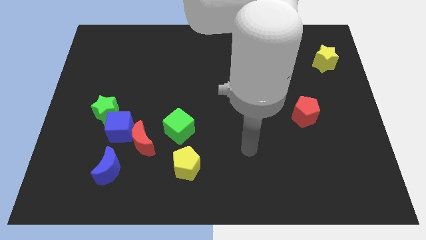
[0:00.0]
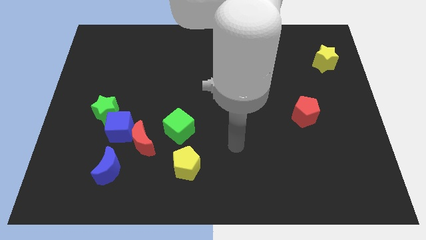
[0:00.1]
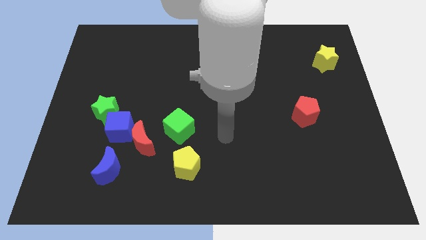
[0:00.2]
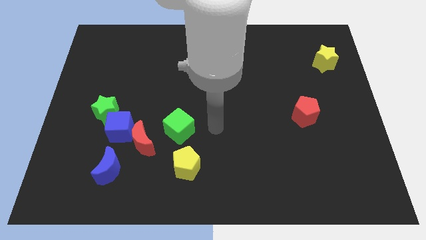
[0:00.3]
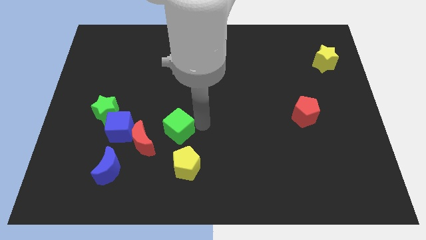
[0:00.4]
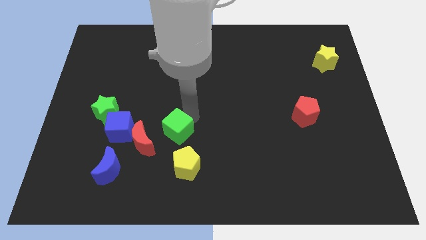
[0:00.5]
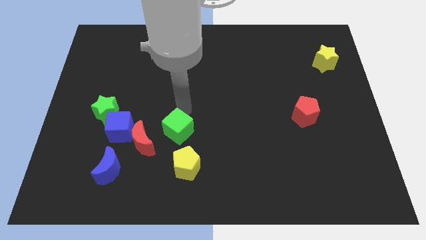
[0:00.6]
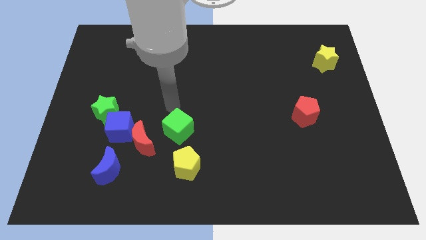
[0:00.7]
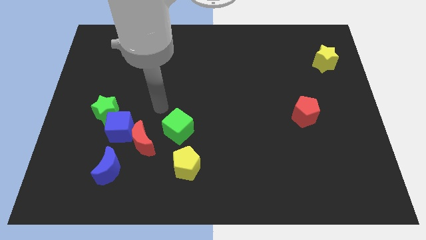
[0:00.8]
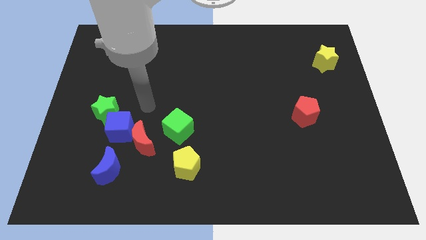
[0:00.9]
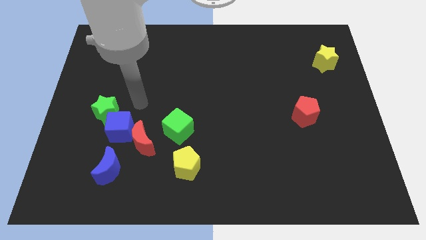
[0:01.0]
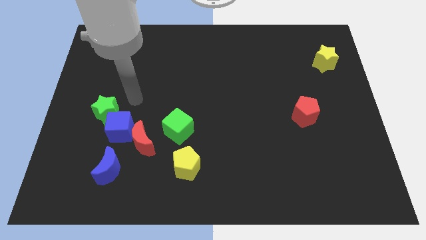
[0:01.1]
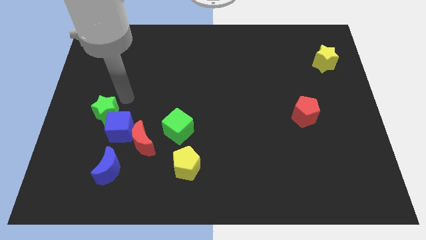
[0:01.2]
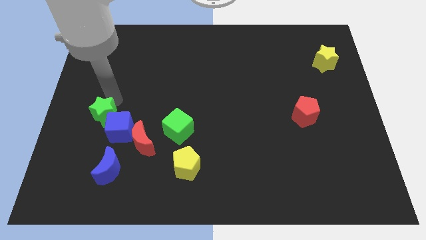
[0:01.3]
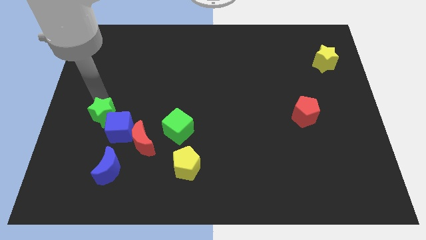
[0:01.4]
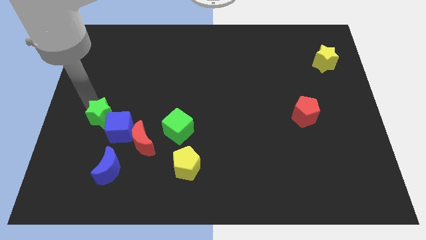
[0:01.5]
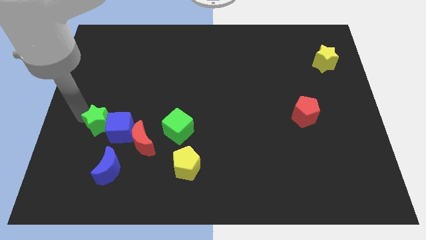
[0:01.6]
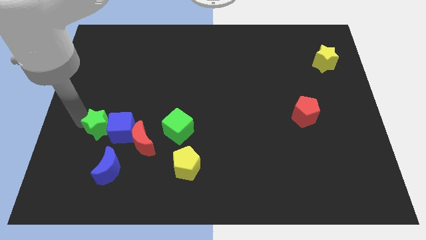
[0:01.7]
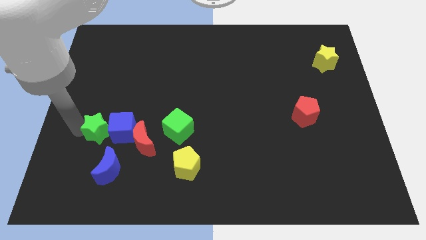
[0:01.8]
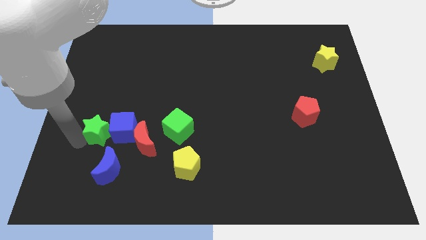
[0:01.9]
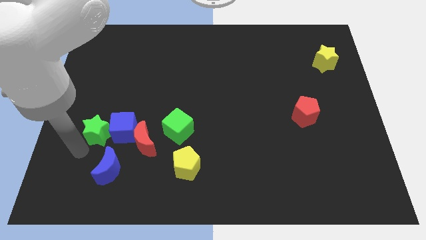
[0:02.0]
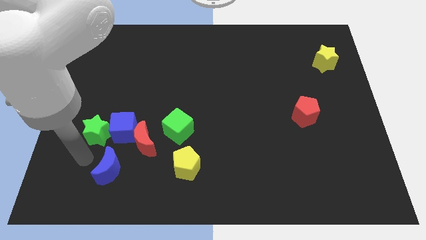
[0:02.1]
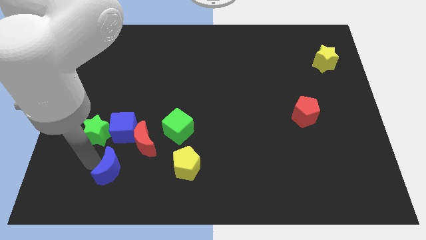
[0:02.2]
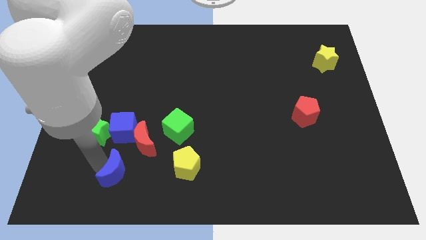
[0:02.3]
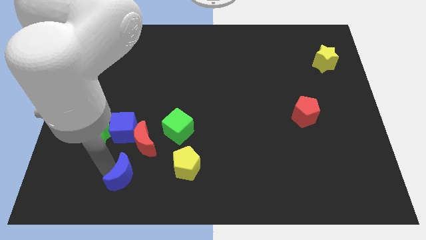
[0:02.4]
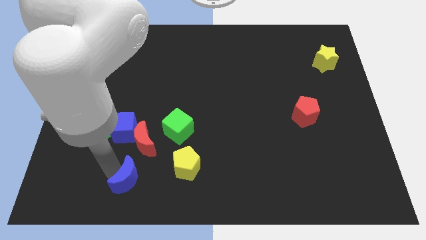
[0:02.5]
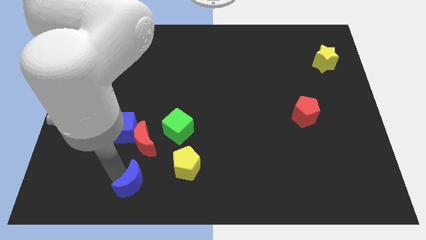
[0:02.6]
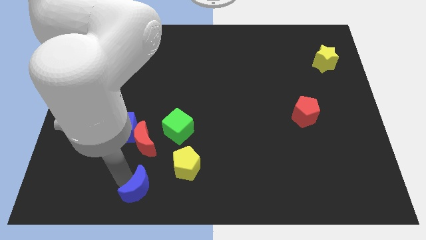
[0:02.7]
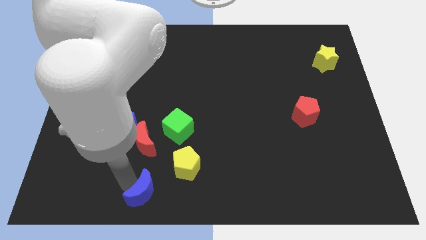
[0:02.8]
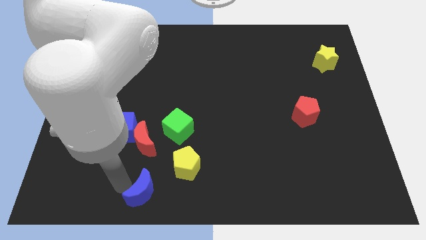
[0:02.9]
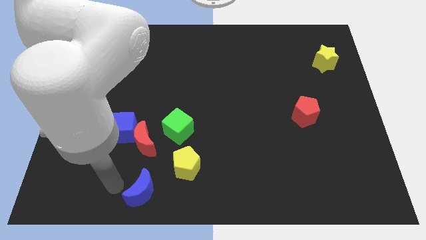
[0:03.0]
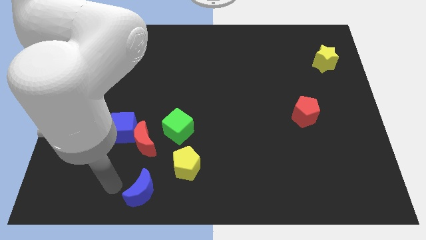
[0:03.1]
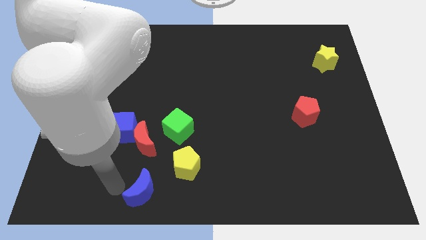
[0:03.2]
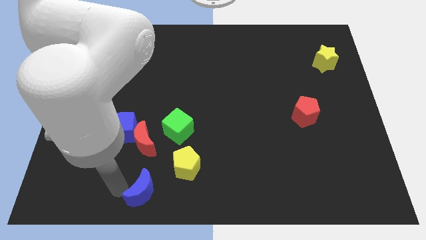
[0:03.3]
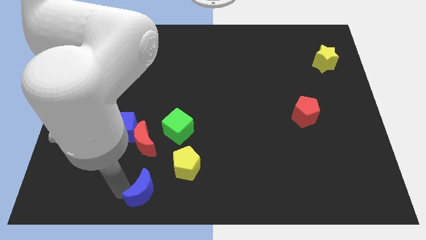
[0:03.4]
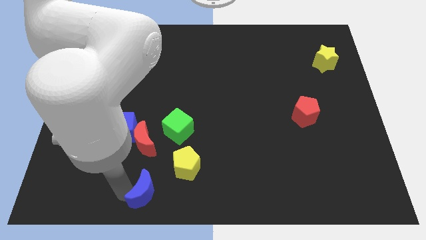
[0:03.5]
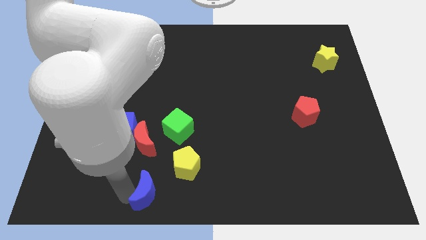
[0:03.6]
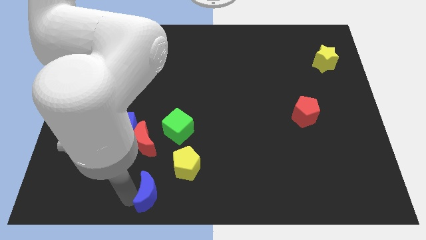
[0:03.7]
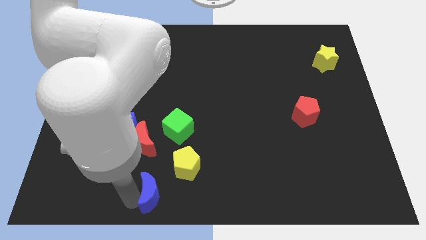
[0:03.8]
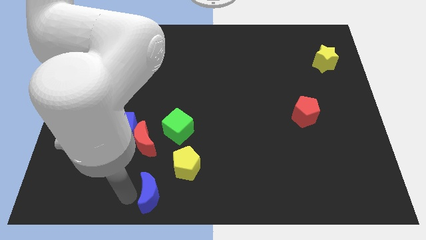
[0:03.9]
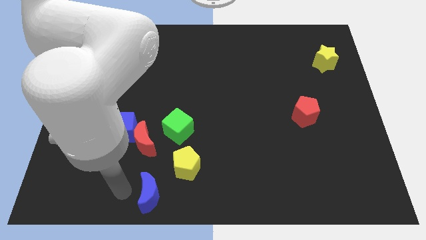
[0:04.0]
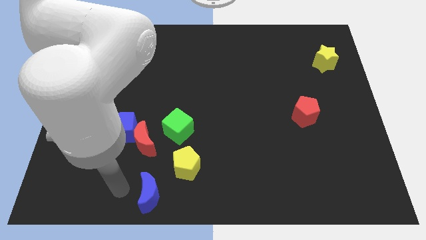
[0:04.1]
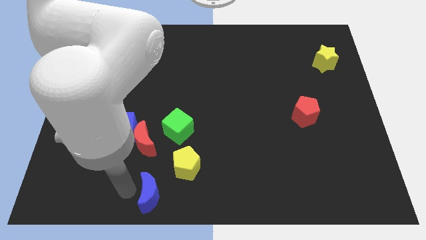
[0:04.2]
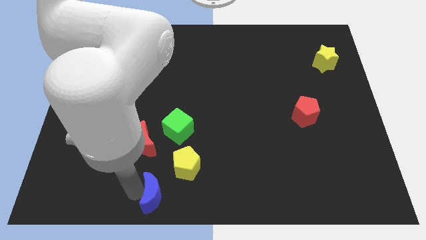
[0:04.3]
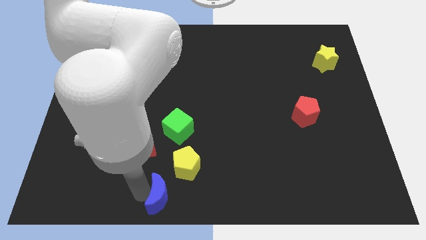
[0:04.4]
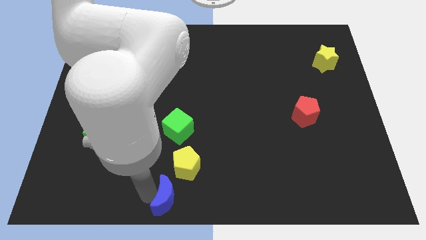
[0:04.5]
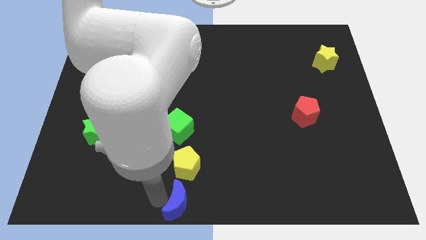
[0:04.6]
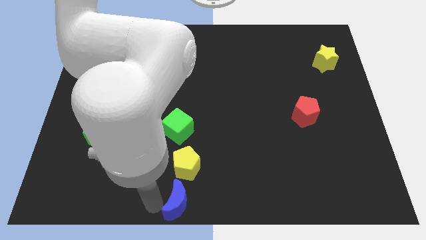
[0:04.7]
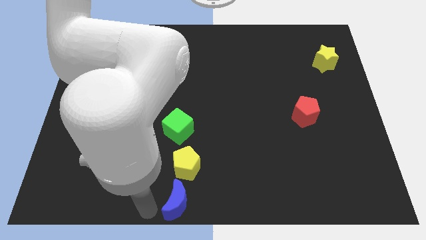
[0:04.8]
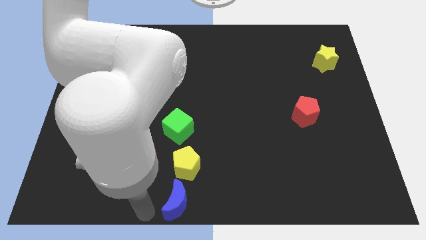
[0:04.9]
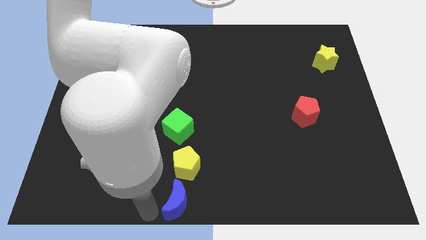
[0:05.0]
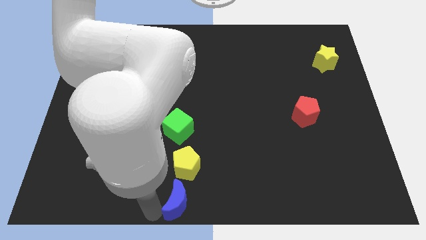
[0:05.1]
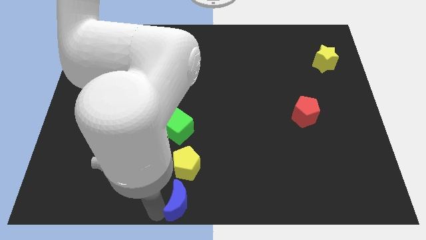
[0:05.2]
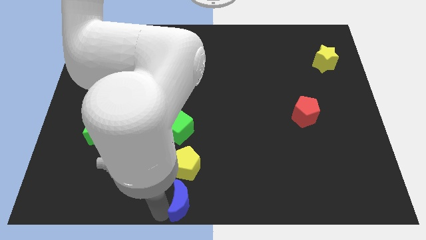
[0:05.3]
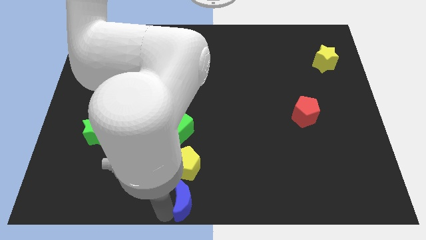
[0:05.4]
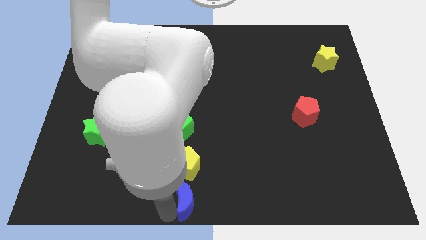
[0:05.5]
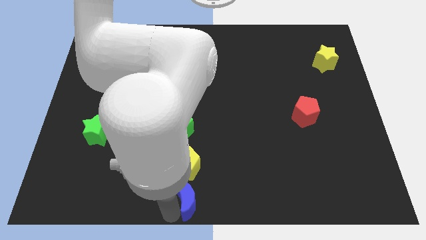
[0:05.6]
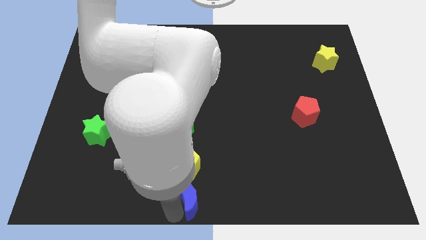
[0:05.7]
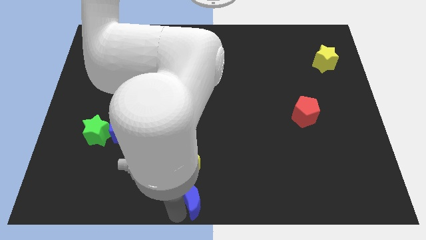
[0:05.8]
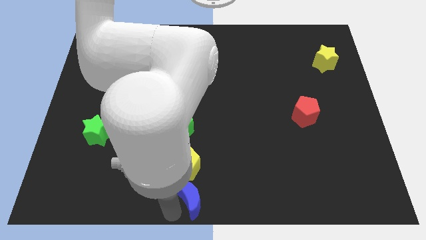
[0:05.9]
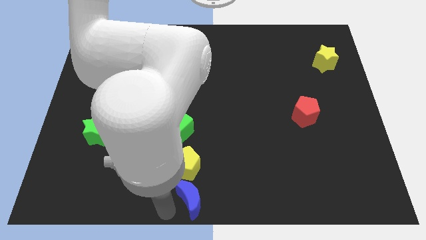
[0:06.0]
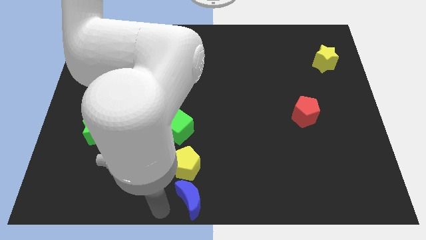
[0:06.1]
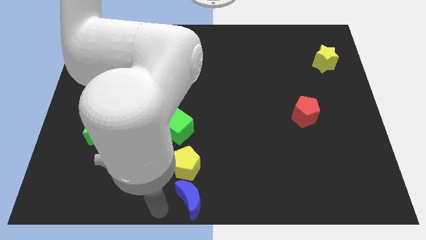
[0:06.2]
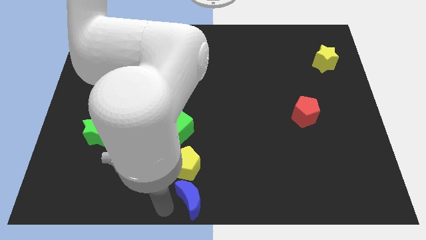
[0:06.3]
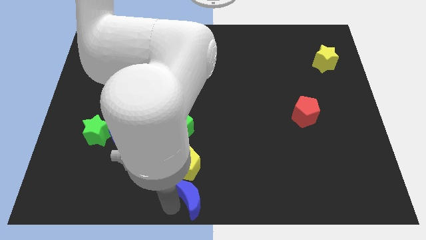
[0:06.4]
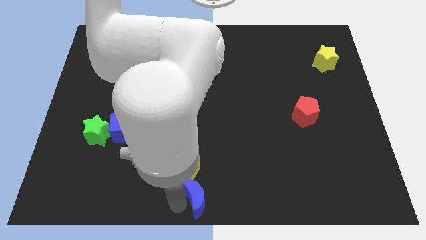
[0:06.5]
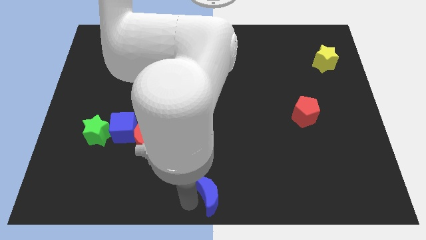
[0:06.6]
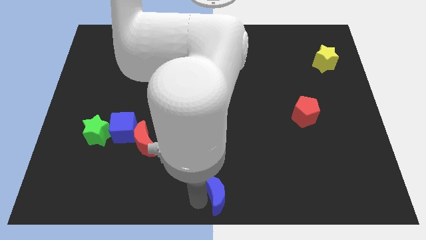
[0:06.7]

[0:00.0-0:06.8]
push the blue moon right

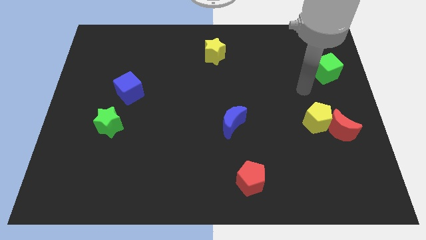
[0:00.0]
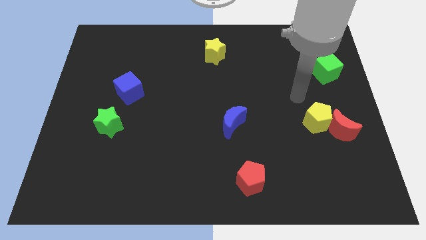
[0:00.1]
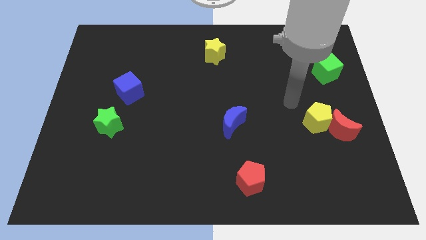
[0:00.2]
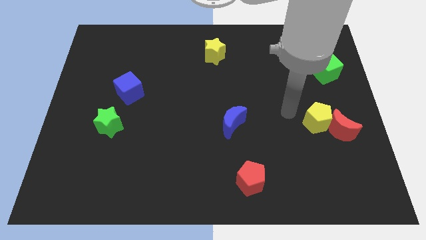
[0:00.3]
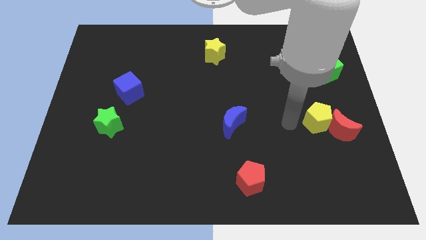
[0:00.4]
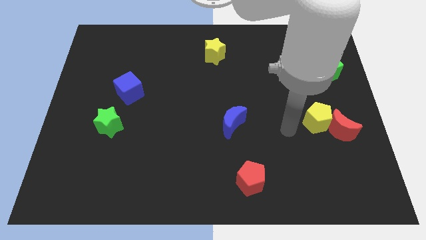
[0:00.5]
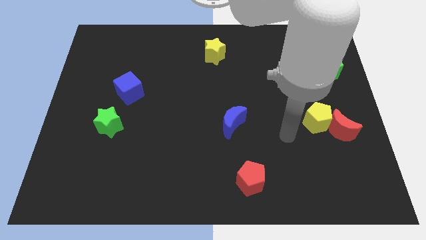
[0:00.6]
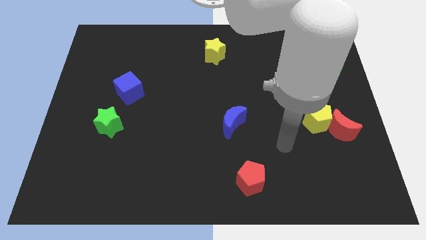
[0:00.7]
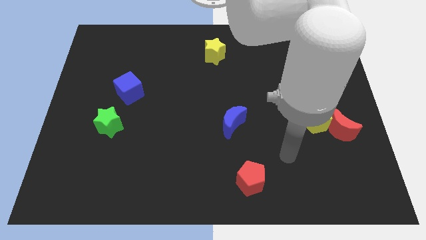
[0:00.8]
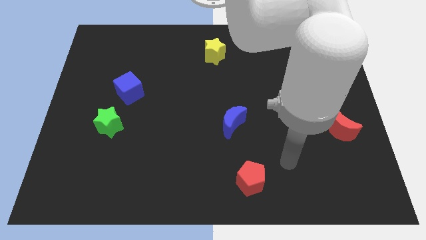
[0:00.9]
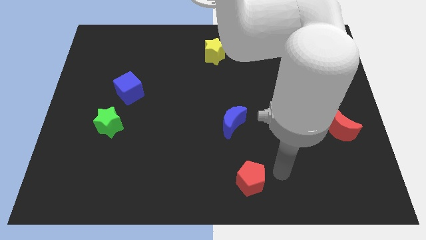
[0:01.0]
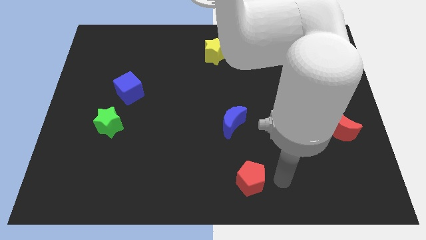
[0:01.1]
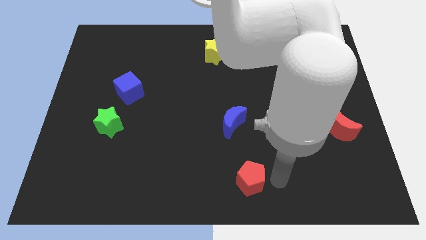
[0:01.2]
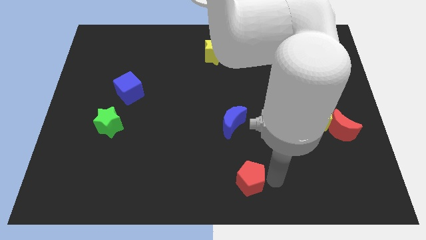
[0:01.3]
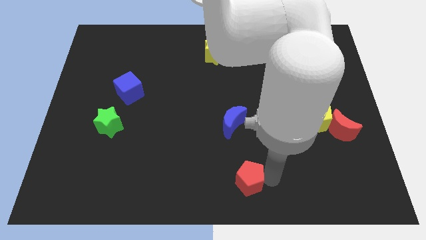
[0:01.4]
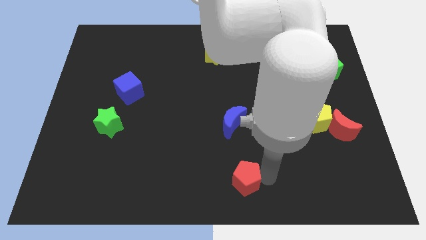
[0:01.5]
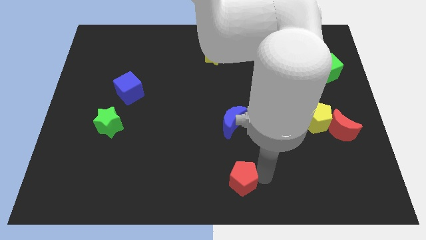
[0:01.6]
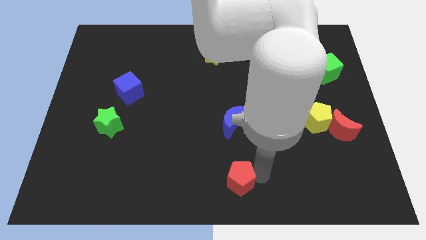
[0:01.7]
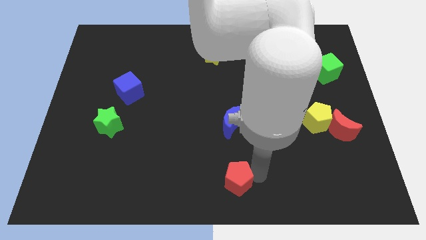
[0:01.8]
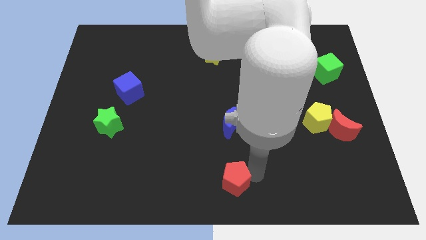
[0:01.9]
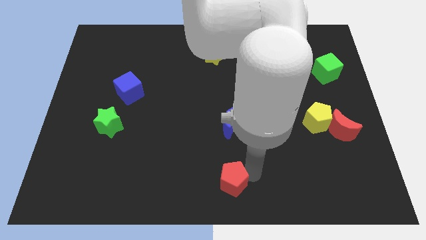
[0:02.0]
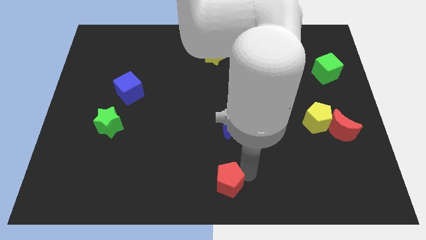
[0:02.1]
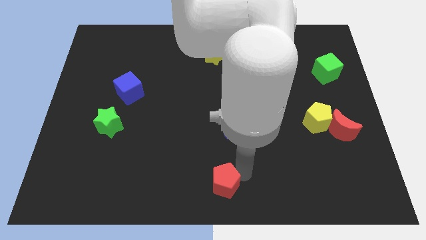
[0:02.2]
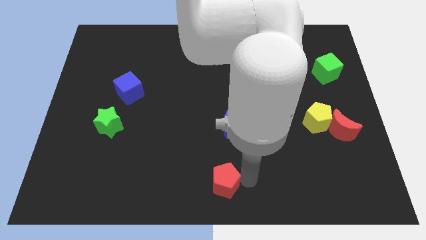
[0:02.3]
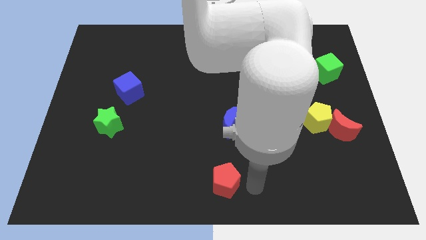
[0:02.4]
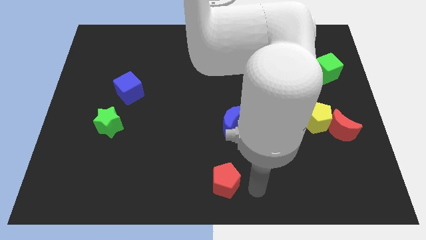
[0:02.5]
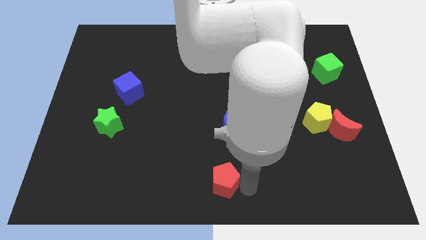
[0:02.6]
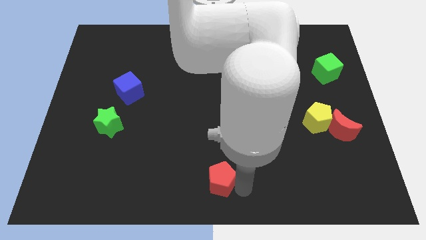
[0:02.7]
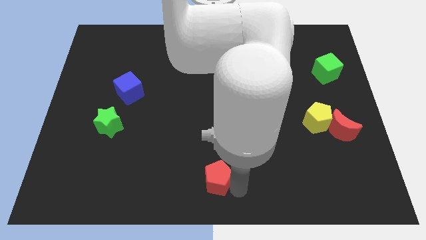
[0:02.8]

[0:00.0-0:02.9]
push the red pentagon to the left a little bit
